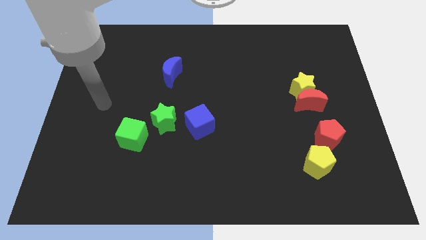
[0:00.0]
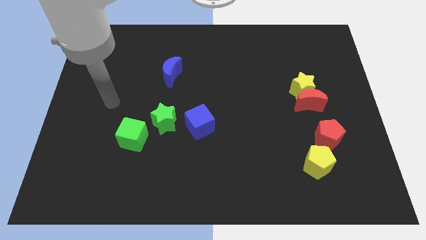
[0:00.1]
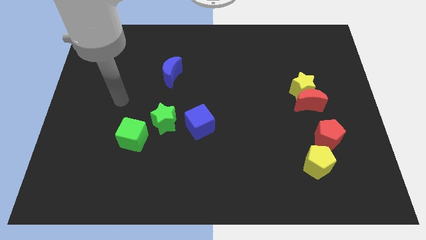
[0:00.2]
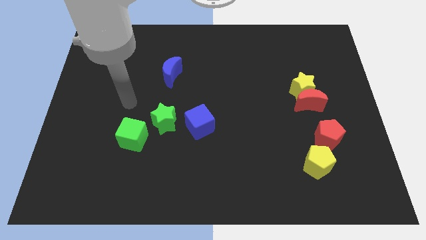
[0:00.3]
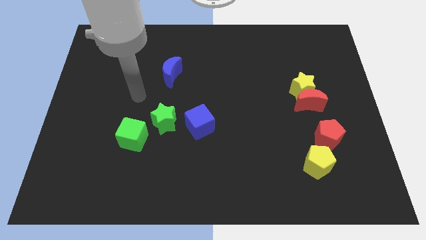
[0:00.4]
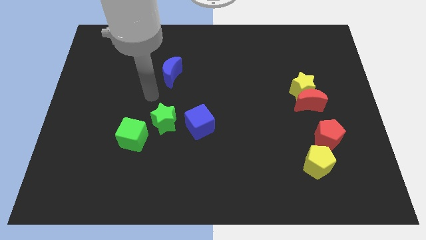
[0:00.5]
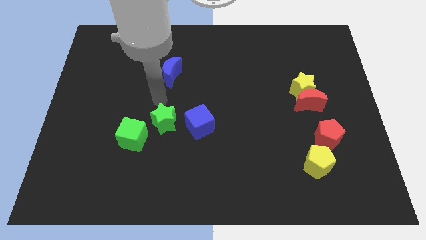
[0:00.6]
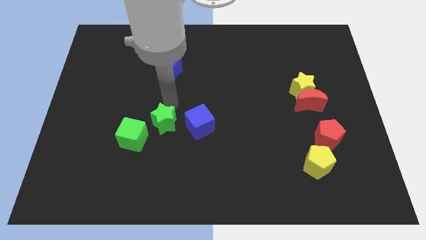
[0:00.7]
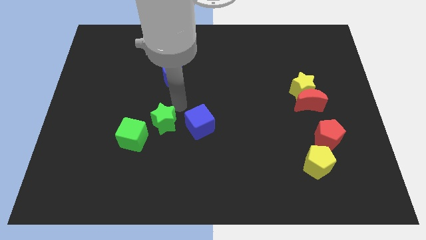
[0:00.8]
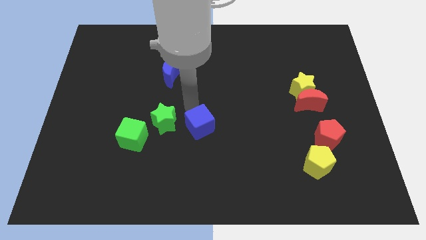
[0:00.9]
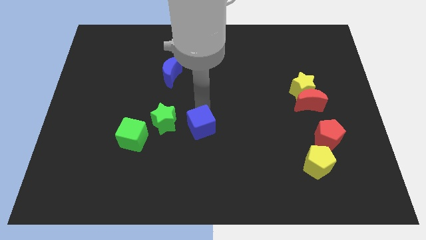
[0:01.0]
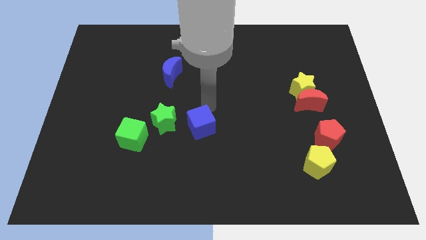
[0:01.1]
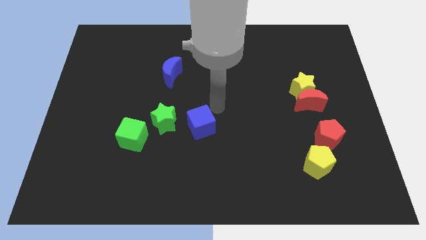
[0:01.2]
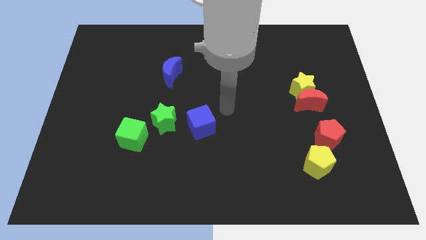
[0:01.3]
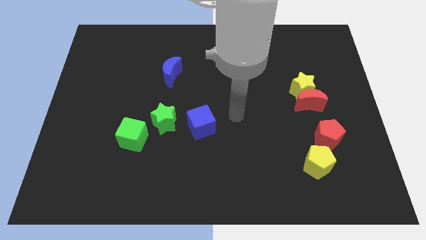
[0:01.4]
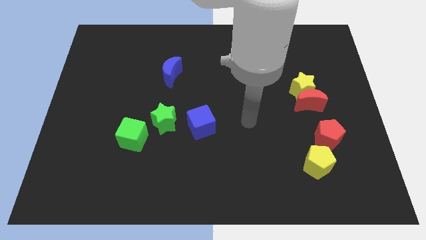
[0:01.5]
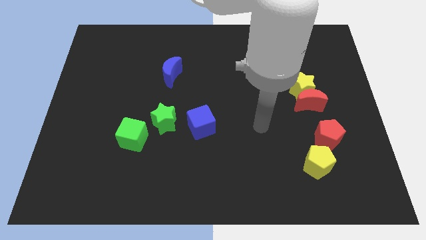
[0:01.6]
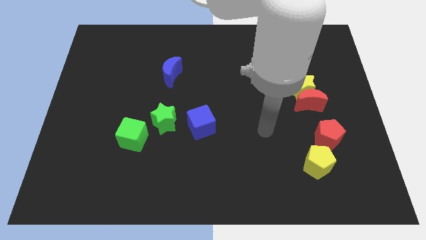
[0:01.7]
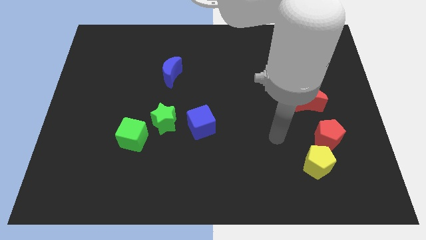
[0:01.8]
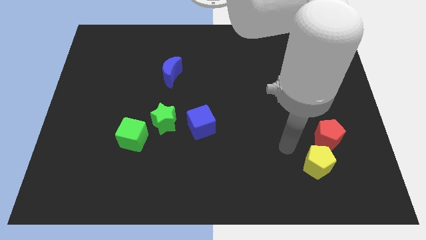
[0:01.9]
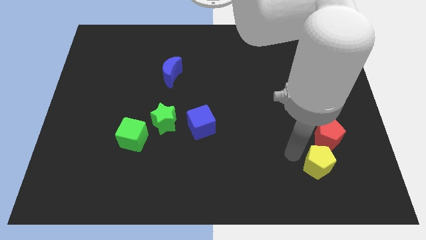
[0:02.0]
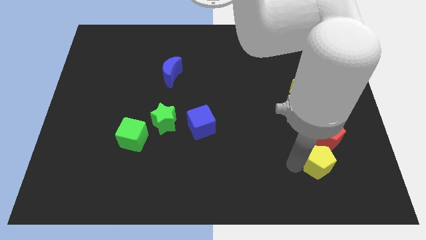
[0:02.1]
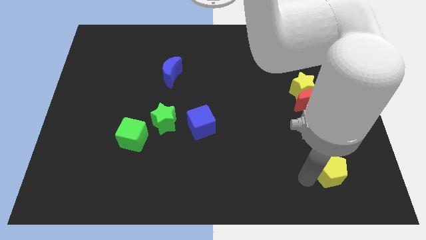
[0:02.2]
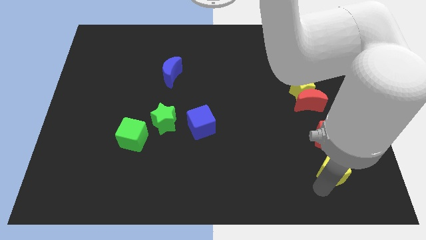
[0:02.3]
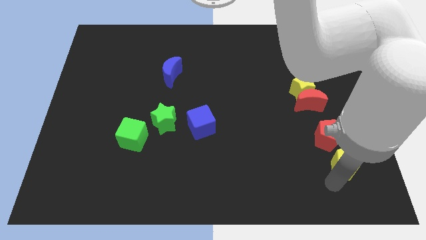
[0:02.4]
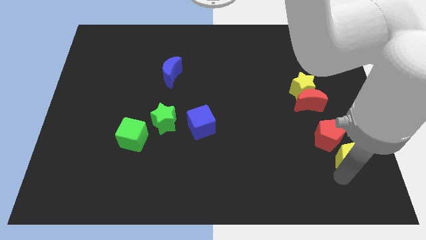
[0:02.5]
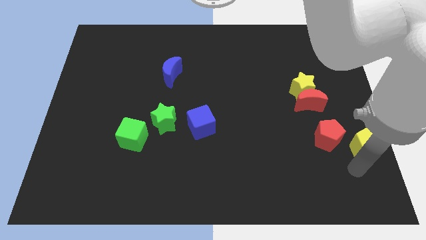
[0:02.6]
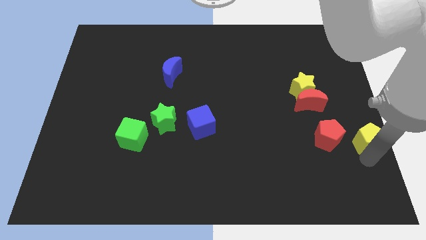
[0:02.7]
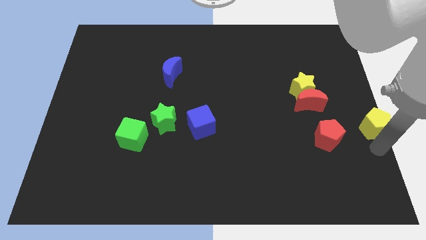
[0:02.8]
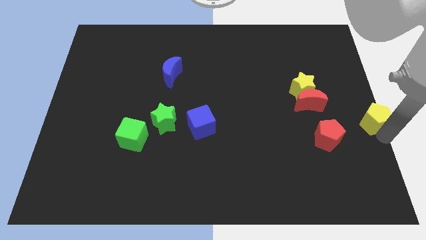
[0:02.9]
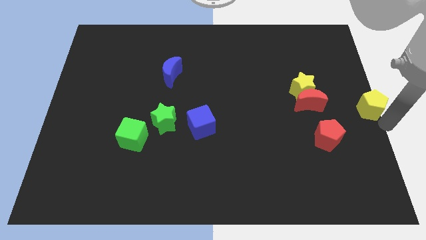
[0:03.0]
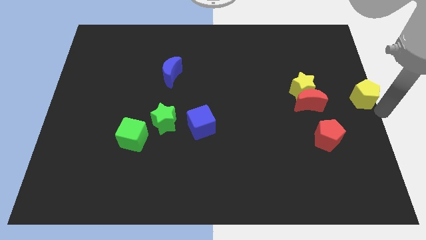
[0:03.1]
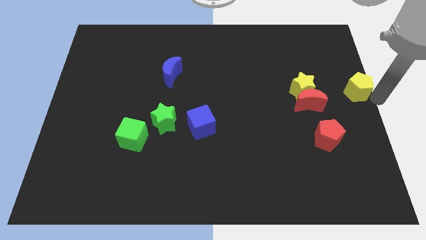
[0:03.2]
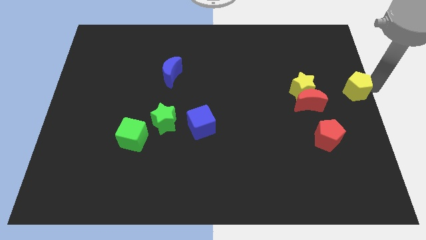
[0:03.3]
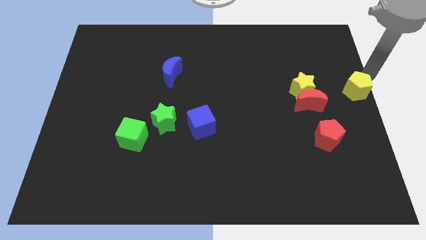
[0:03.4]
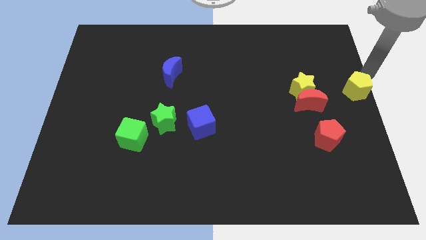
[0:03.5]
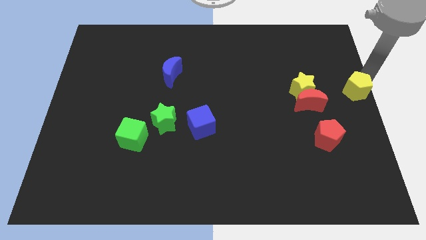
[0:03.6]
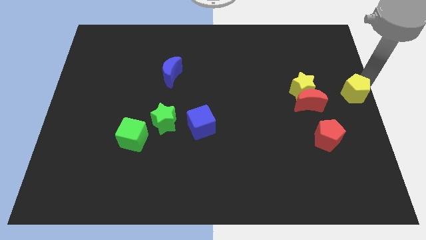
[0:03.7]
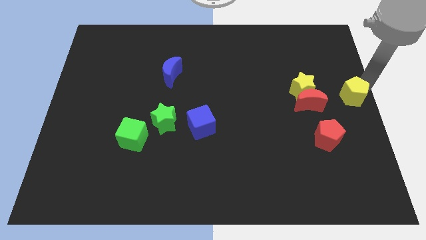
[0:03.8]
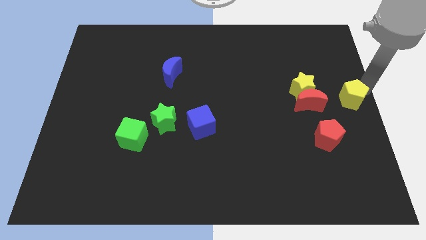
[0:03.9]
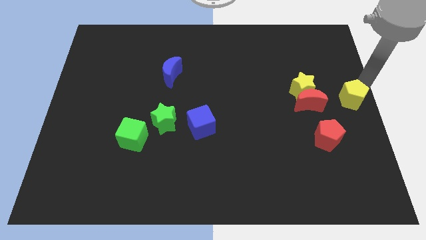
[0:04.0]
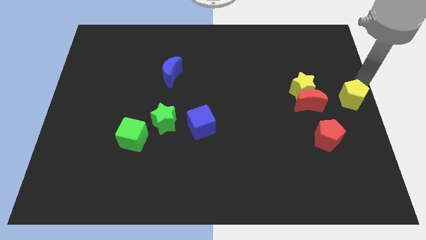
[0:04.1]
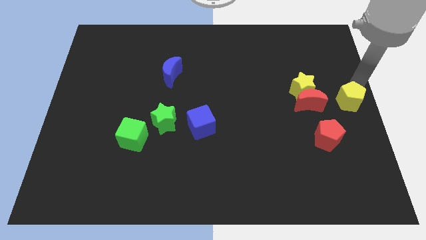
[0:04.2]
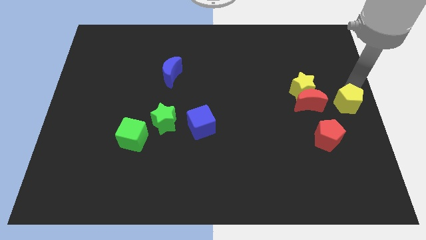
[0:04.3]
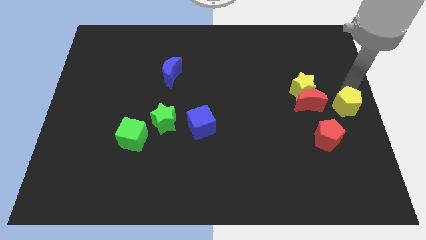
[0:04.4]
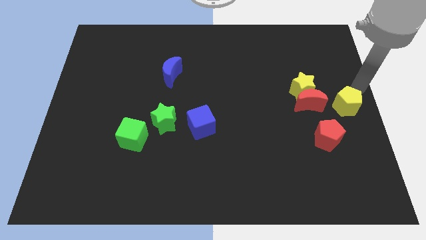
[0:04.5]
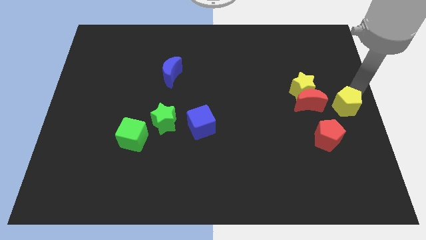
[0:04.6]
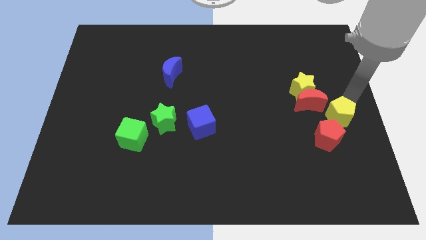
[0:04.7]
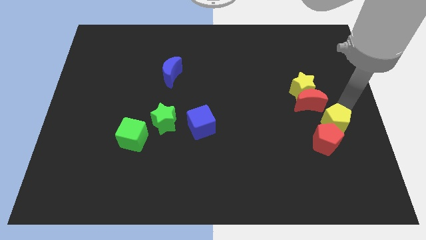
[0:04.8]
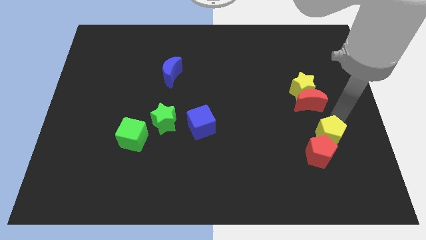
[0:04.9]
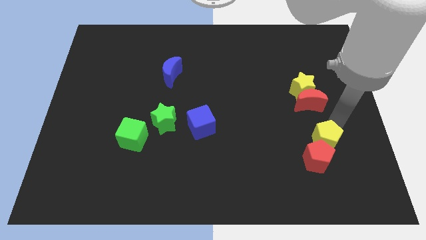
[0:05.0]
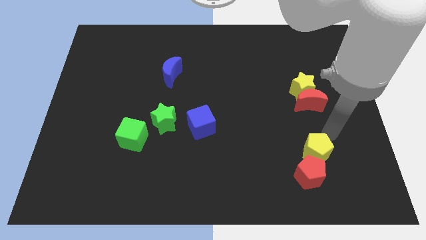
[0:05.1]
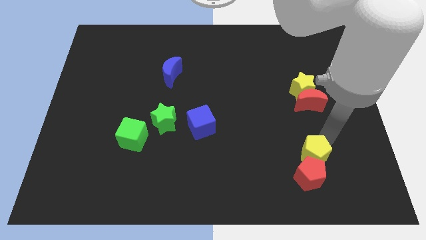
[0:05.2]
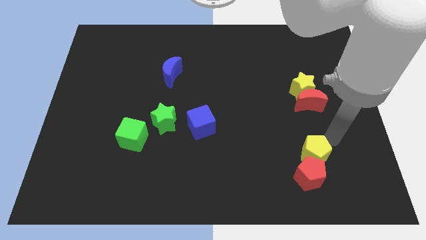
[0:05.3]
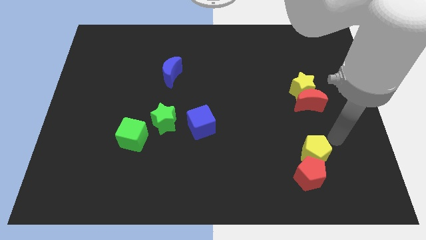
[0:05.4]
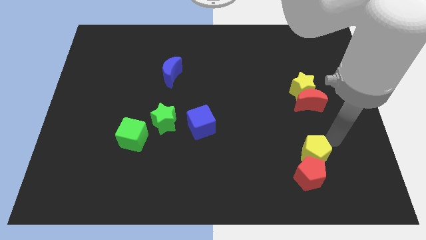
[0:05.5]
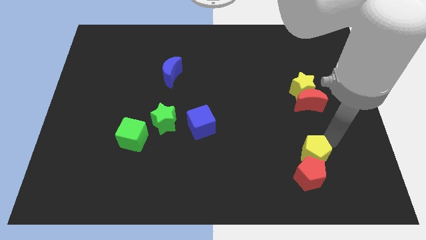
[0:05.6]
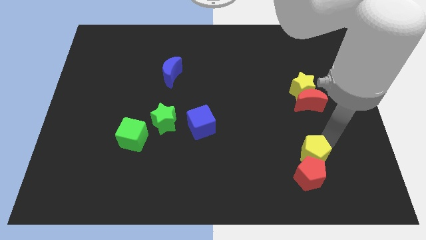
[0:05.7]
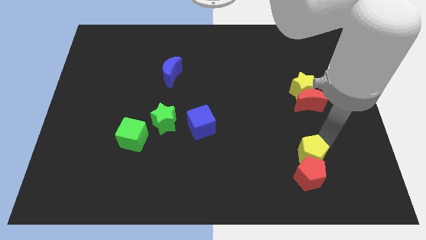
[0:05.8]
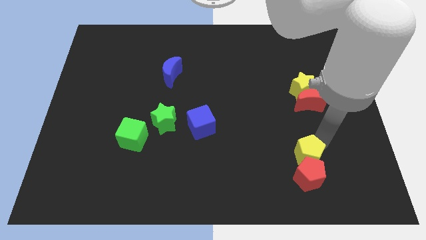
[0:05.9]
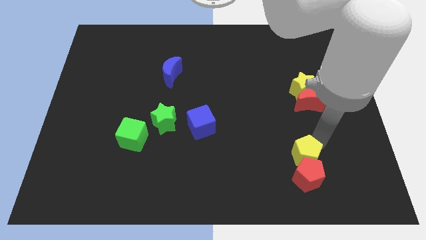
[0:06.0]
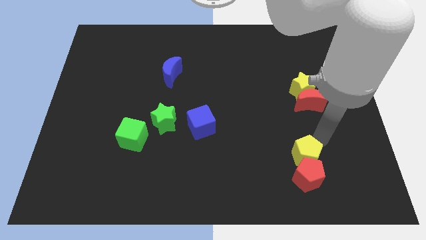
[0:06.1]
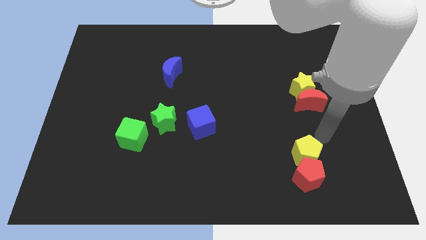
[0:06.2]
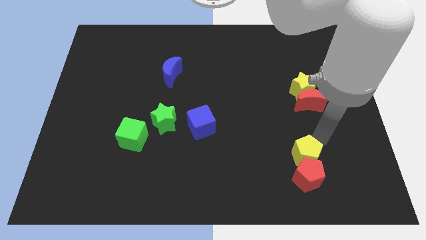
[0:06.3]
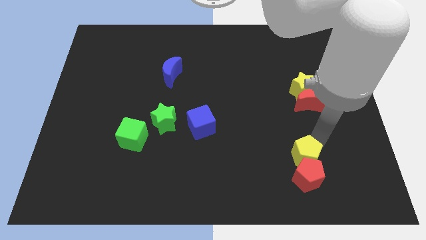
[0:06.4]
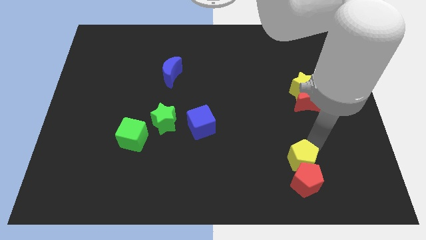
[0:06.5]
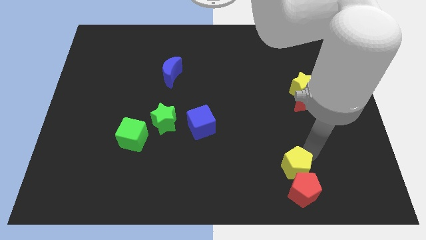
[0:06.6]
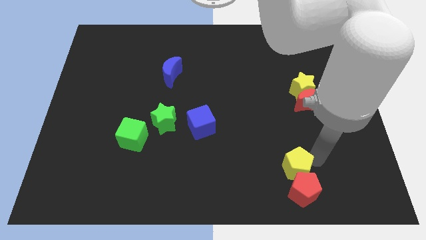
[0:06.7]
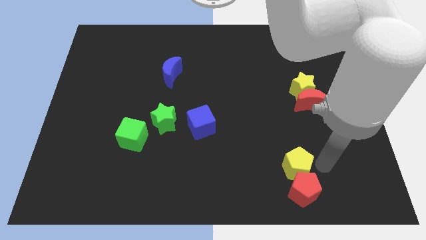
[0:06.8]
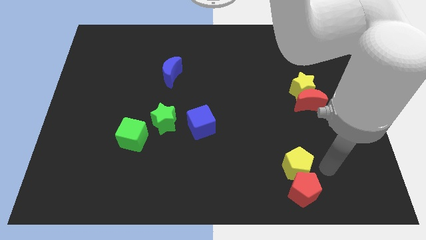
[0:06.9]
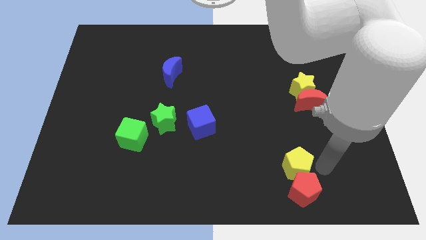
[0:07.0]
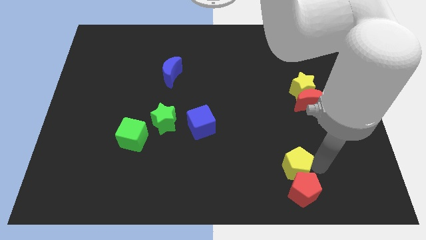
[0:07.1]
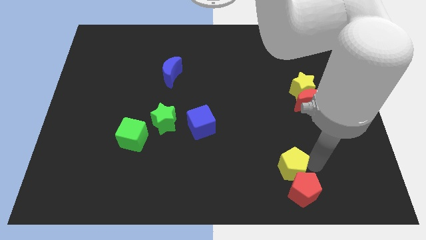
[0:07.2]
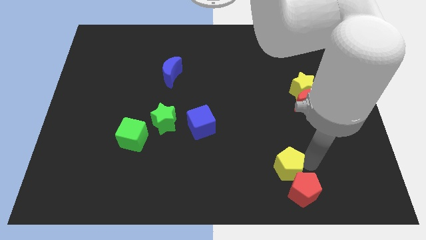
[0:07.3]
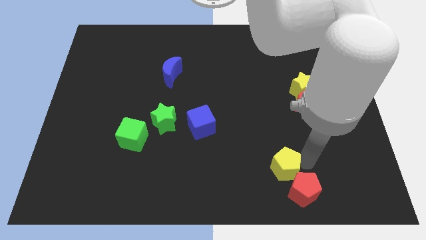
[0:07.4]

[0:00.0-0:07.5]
slightly push the yellow pentagon left

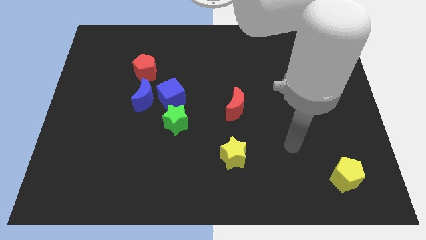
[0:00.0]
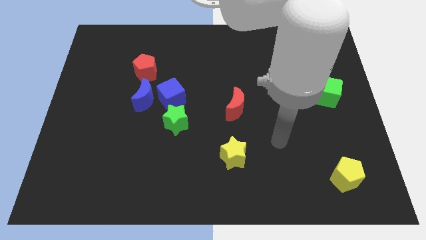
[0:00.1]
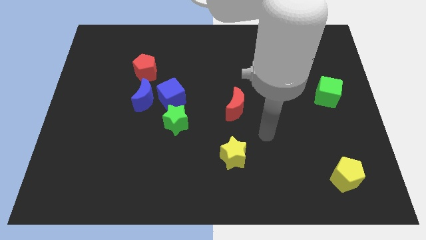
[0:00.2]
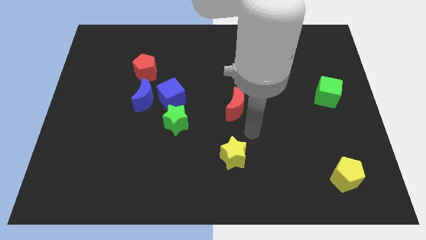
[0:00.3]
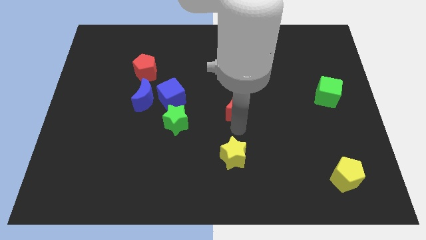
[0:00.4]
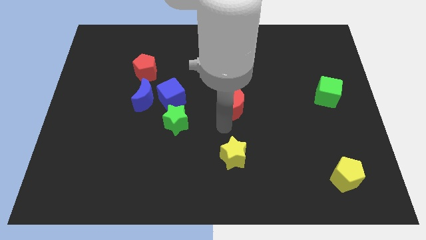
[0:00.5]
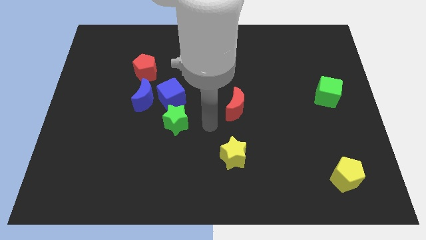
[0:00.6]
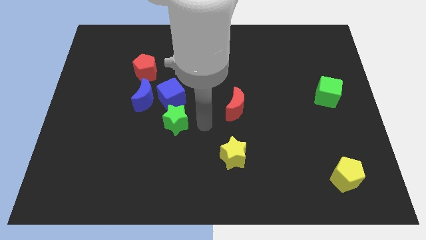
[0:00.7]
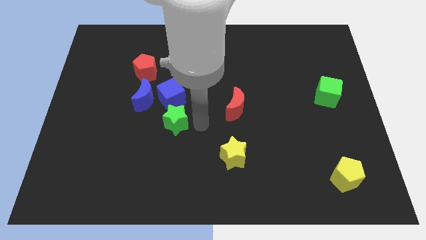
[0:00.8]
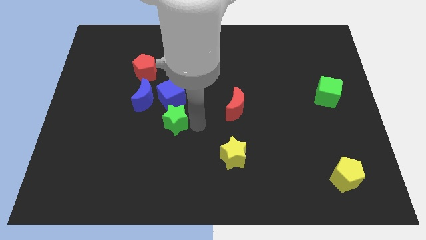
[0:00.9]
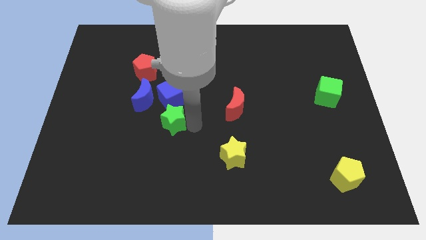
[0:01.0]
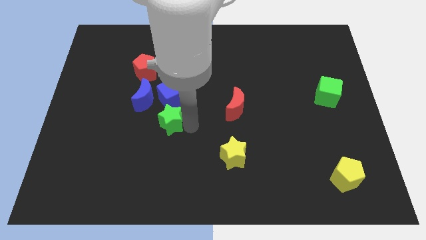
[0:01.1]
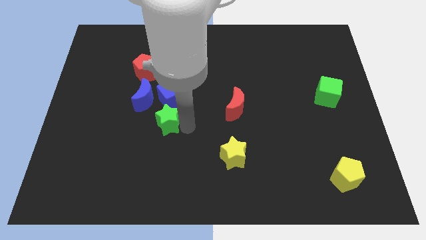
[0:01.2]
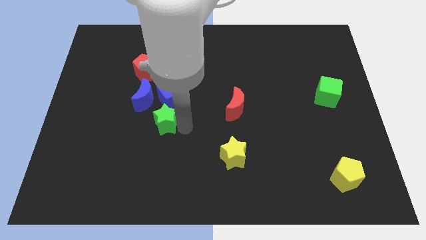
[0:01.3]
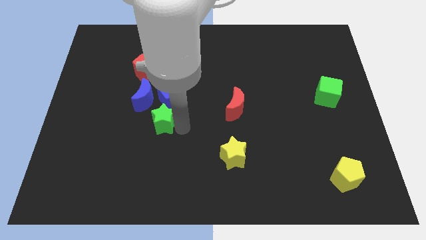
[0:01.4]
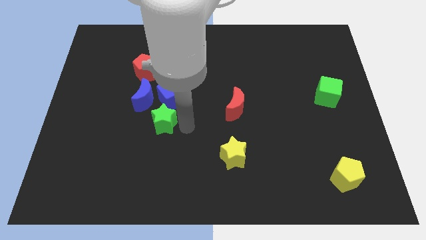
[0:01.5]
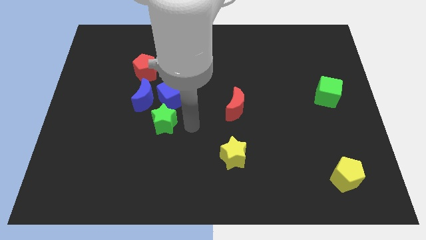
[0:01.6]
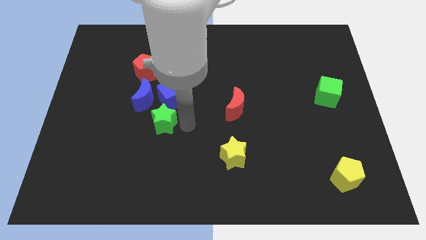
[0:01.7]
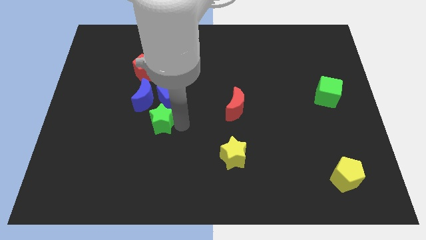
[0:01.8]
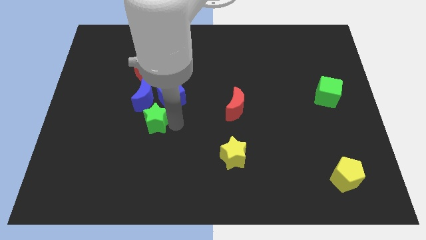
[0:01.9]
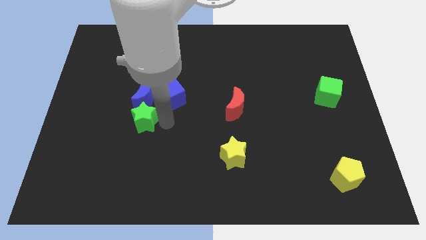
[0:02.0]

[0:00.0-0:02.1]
slightly push the green star to the left
